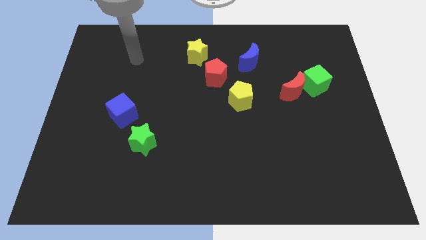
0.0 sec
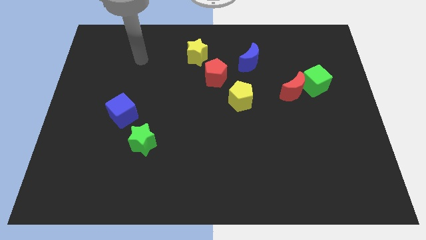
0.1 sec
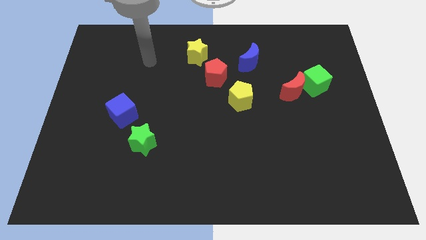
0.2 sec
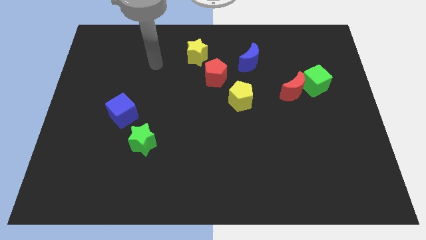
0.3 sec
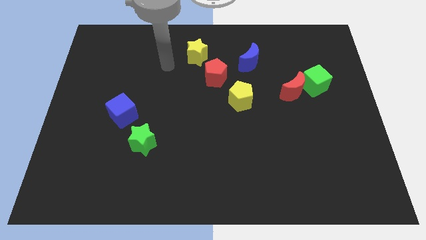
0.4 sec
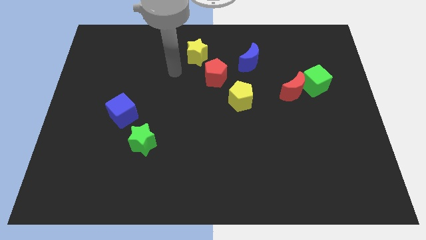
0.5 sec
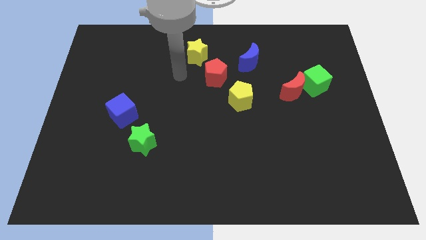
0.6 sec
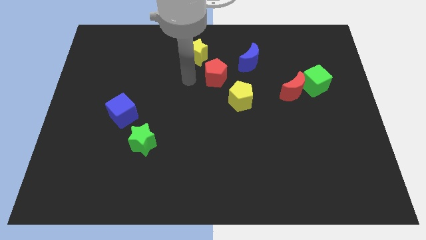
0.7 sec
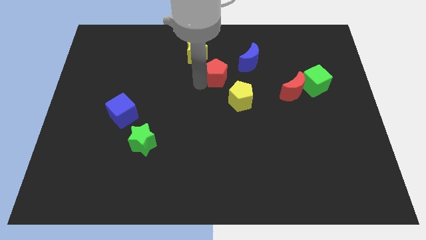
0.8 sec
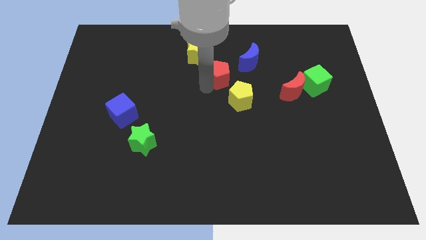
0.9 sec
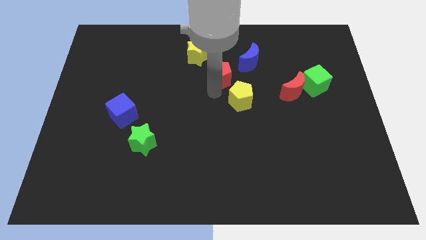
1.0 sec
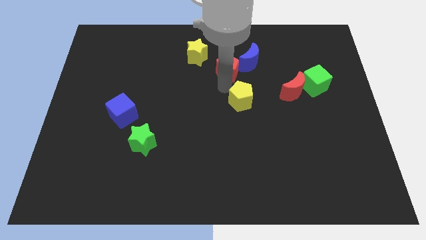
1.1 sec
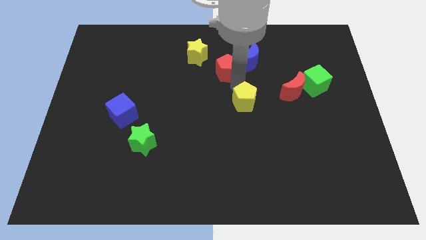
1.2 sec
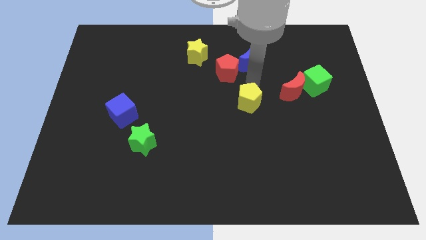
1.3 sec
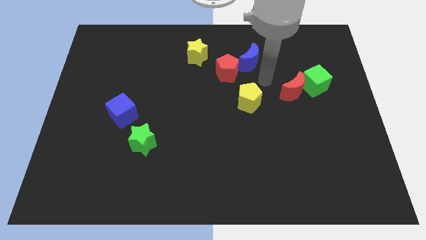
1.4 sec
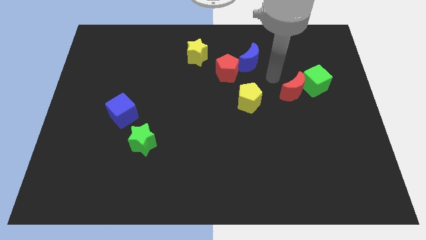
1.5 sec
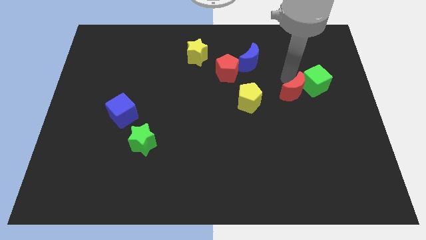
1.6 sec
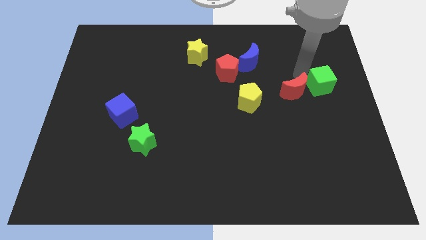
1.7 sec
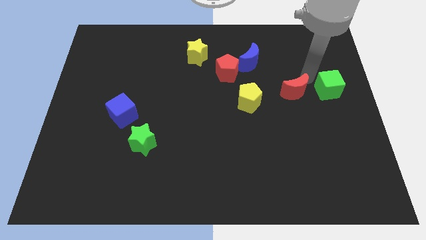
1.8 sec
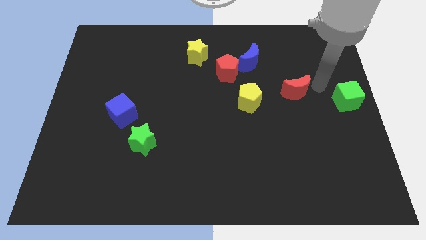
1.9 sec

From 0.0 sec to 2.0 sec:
pull the red moon apart from the green cube

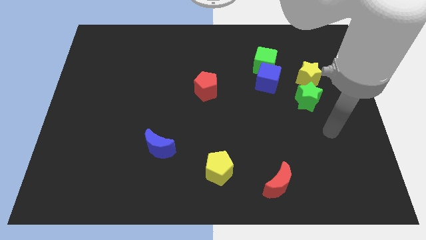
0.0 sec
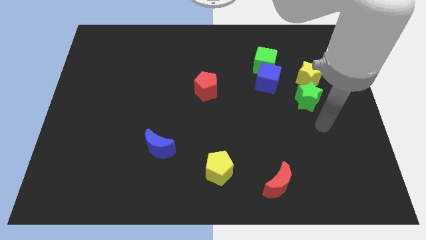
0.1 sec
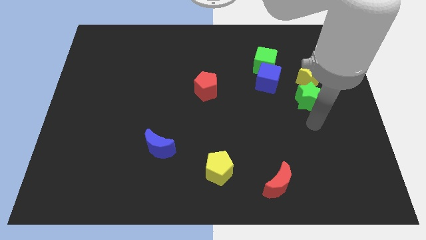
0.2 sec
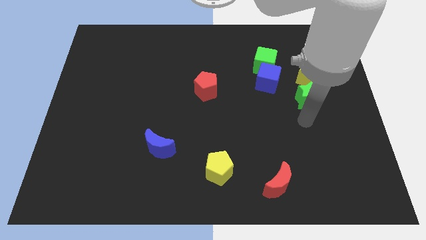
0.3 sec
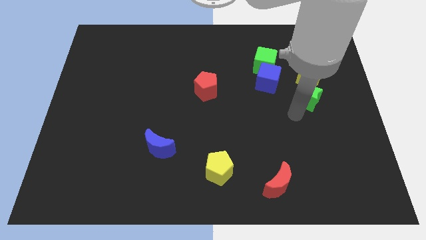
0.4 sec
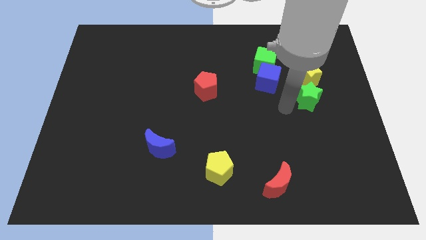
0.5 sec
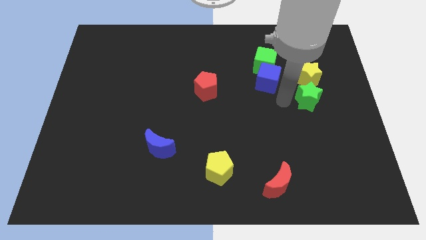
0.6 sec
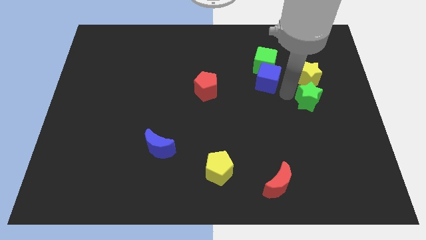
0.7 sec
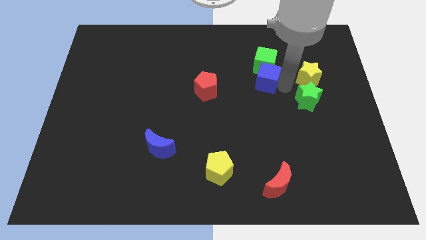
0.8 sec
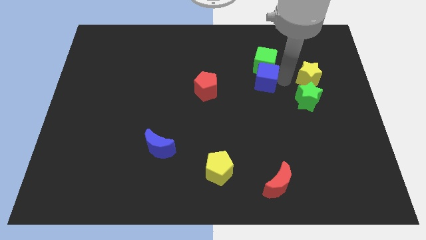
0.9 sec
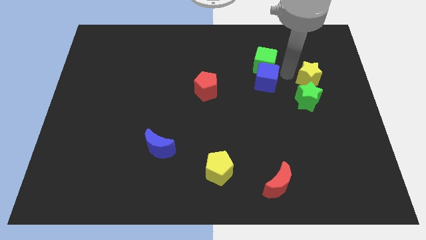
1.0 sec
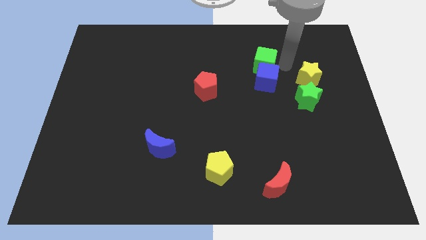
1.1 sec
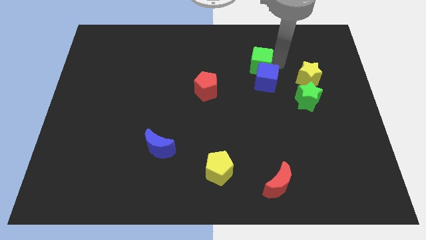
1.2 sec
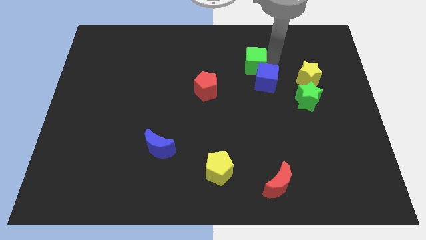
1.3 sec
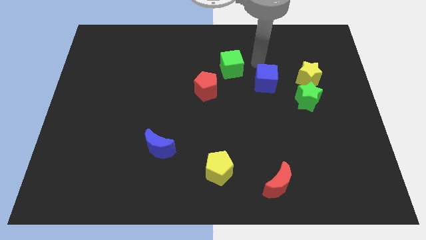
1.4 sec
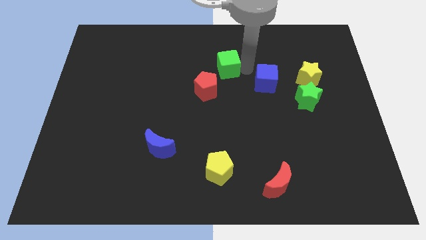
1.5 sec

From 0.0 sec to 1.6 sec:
separate the blue cube from the green cube

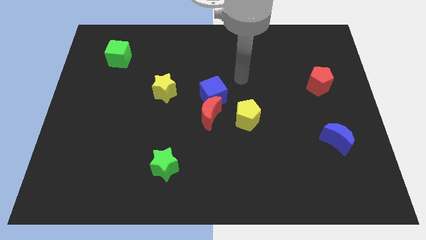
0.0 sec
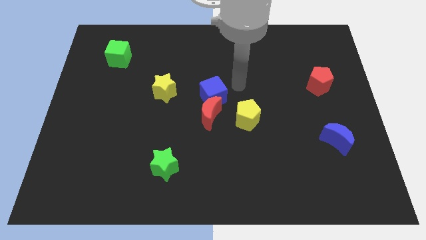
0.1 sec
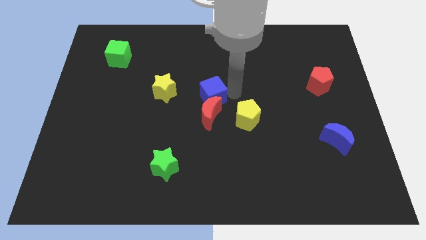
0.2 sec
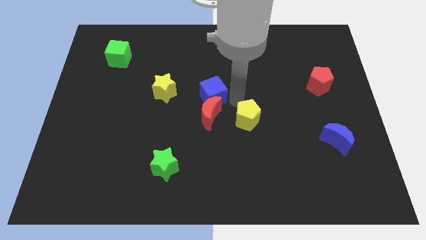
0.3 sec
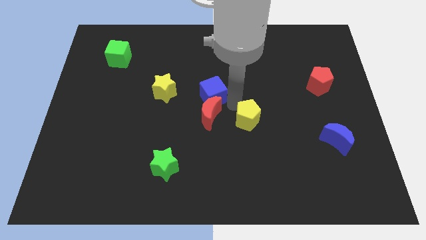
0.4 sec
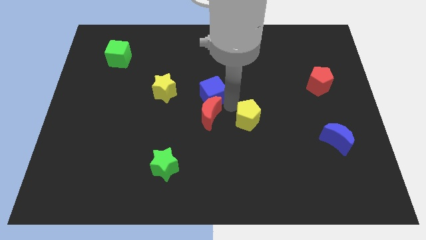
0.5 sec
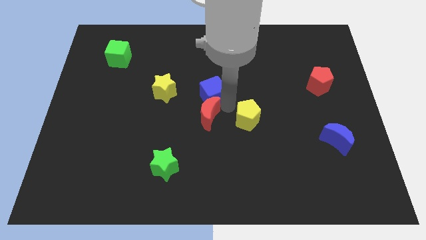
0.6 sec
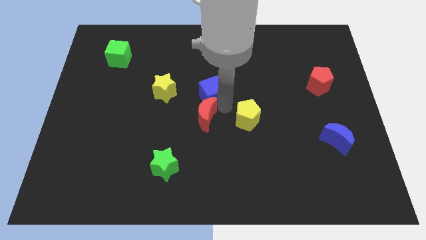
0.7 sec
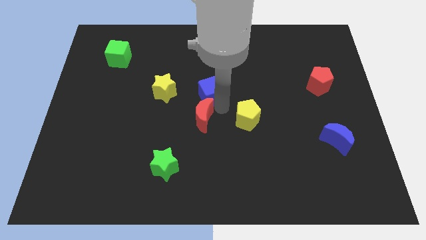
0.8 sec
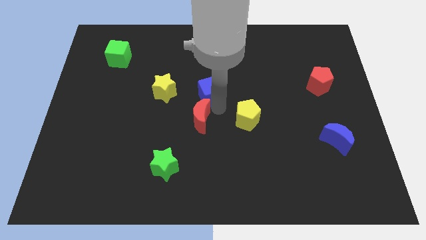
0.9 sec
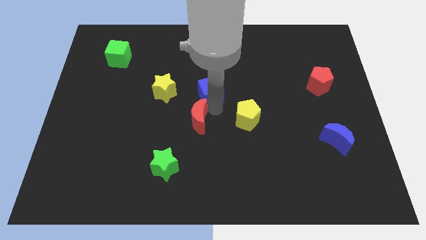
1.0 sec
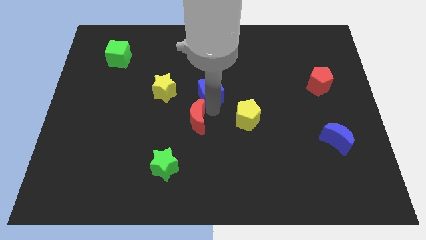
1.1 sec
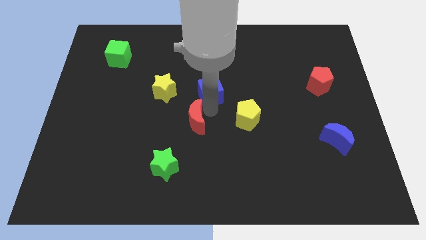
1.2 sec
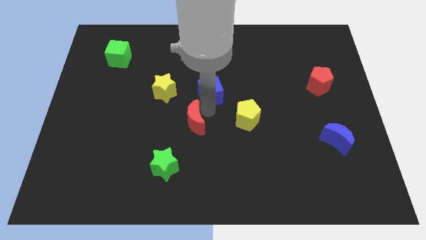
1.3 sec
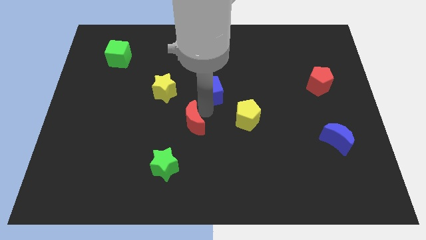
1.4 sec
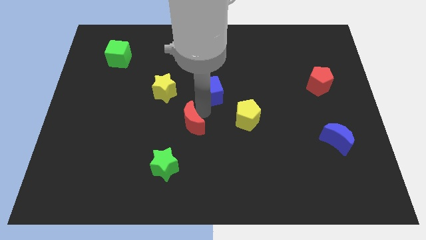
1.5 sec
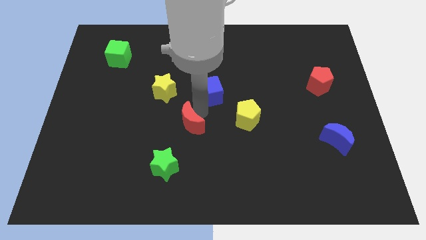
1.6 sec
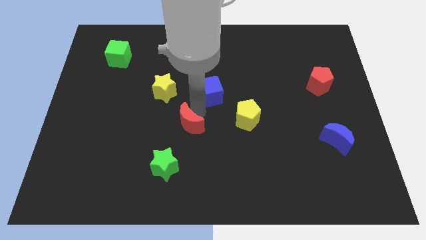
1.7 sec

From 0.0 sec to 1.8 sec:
pull the red moon apart from the blue cube and yellow pentagon

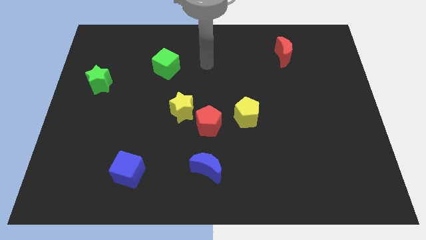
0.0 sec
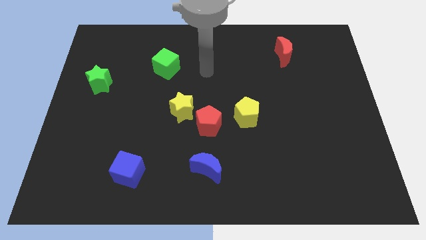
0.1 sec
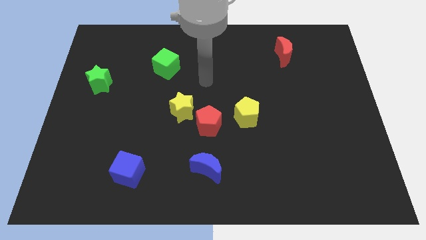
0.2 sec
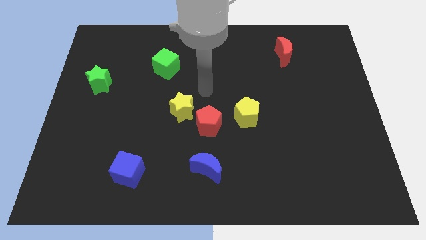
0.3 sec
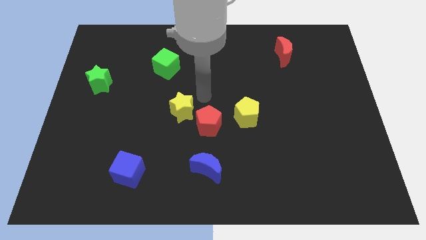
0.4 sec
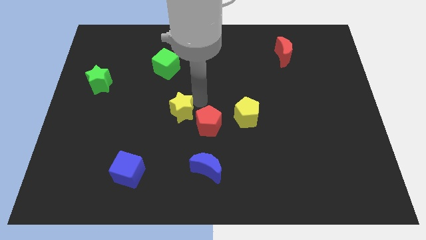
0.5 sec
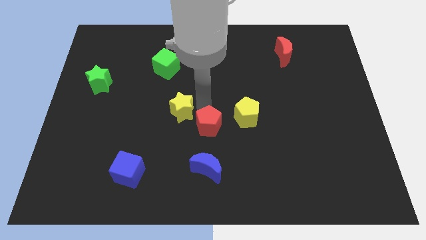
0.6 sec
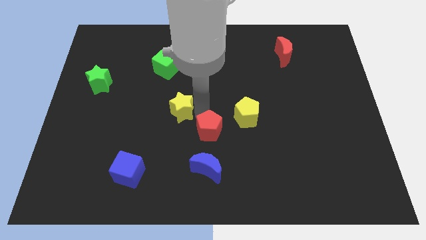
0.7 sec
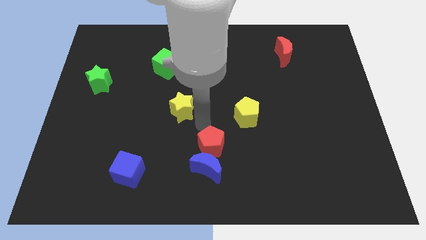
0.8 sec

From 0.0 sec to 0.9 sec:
separate the yellow star from the red pentagon

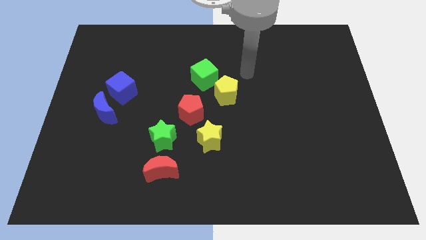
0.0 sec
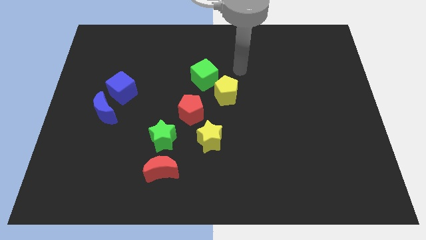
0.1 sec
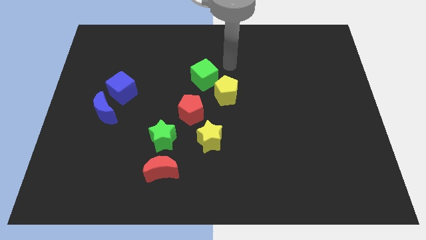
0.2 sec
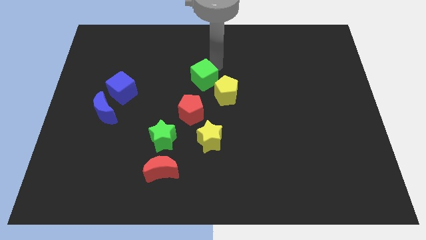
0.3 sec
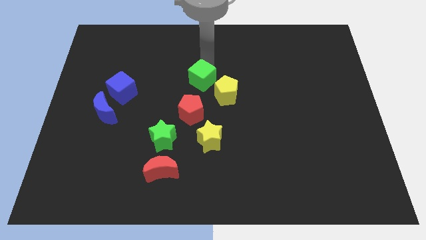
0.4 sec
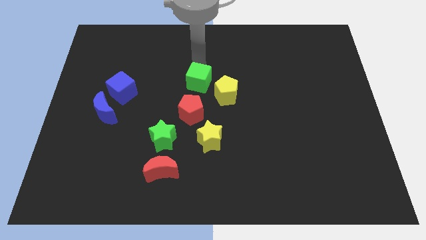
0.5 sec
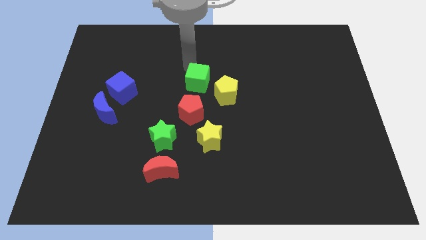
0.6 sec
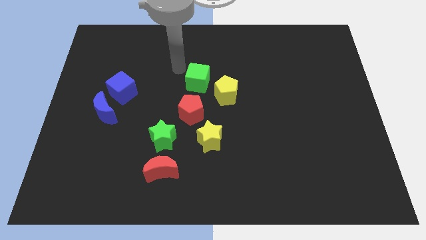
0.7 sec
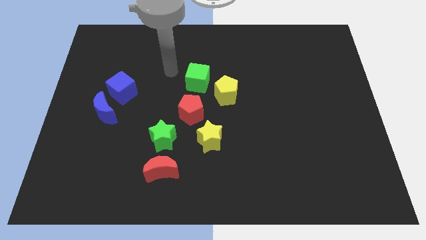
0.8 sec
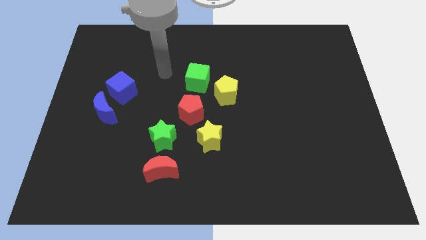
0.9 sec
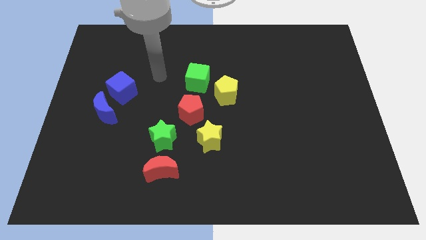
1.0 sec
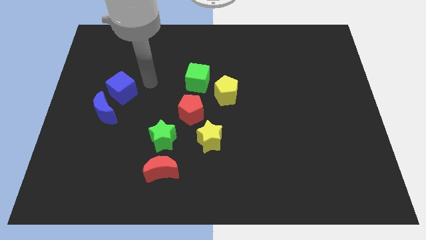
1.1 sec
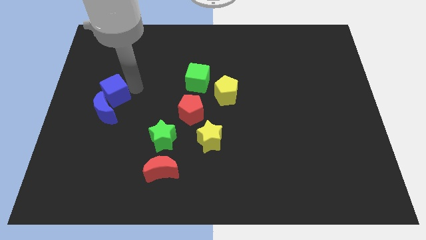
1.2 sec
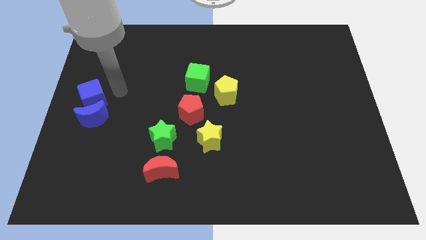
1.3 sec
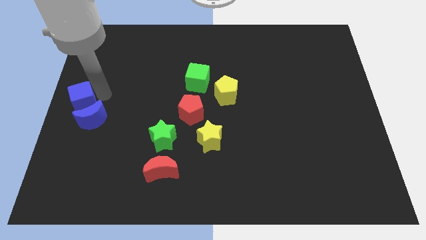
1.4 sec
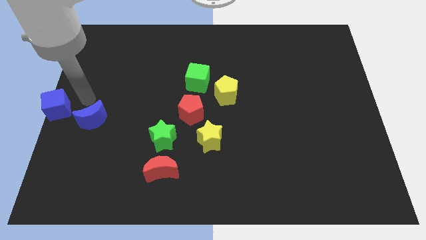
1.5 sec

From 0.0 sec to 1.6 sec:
pull the blue moon apart from the blue cube

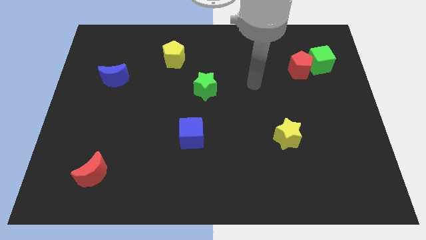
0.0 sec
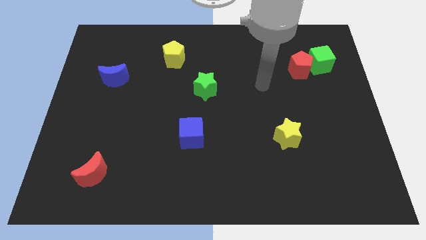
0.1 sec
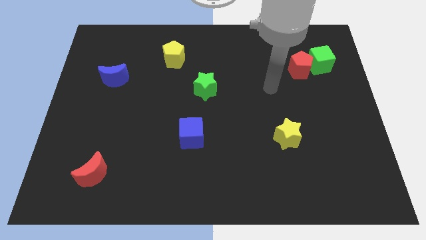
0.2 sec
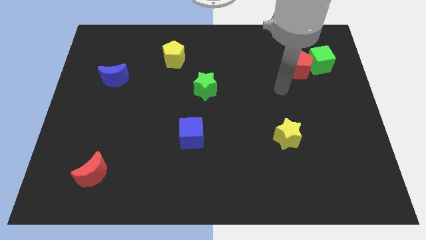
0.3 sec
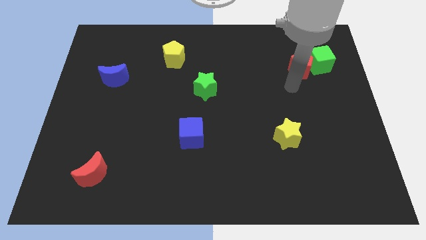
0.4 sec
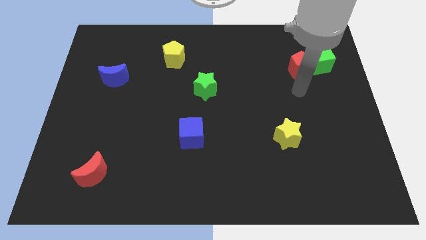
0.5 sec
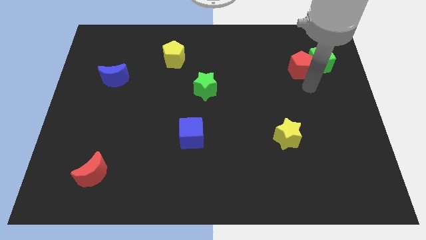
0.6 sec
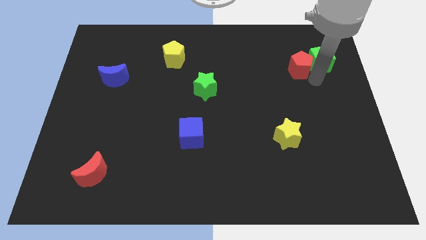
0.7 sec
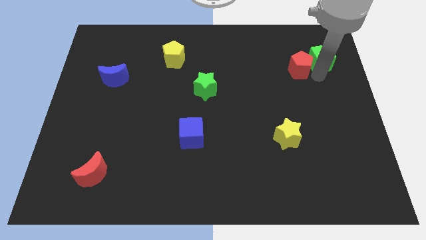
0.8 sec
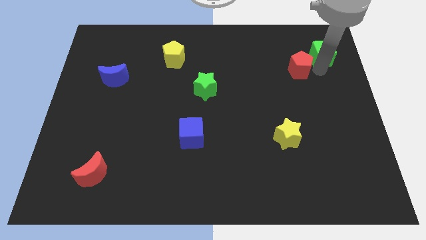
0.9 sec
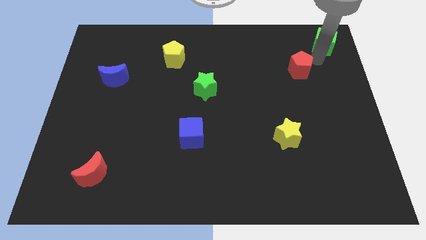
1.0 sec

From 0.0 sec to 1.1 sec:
separate the red pentagon from the green cube

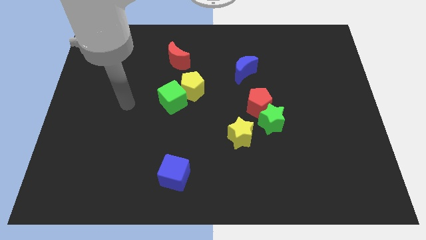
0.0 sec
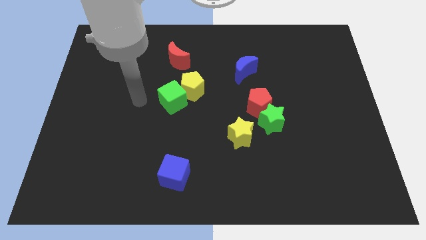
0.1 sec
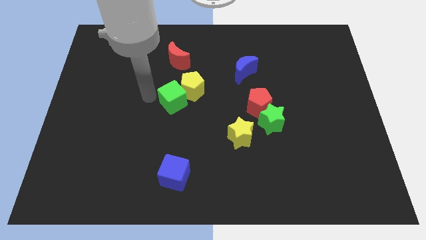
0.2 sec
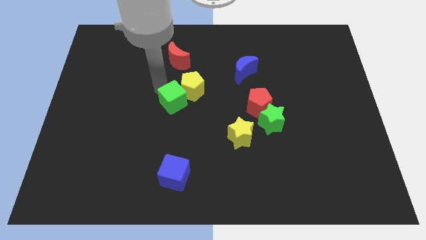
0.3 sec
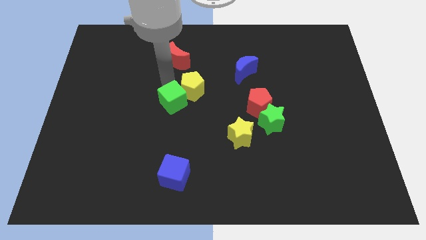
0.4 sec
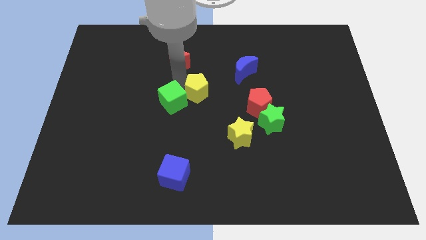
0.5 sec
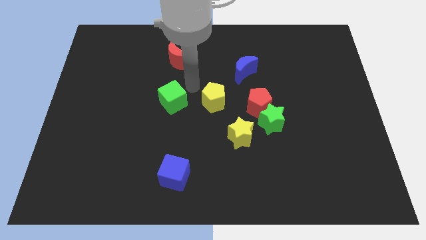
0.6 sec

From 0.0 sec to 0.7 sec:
move the green cube away from the yellow pentagon
